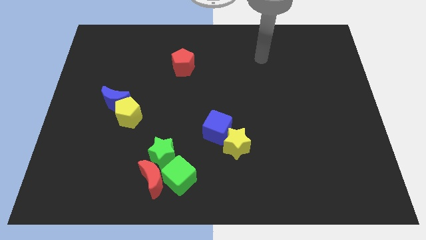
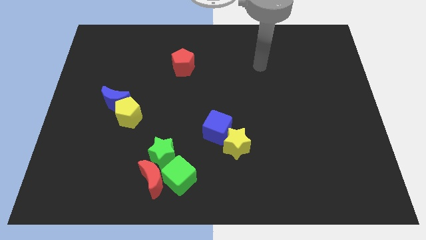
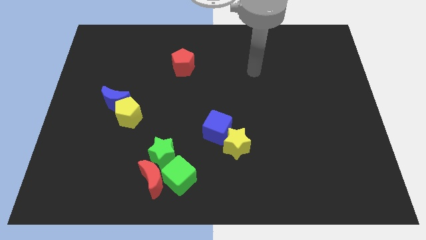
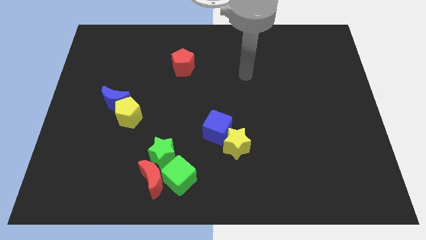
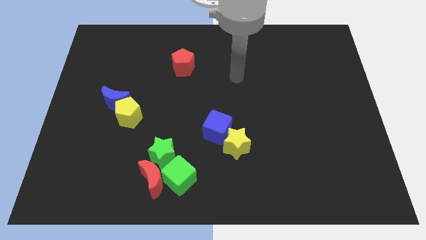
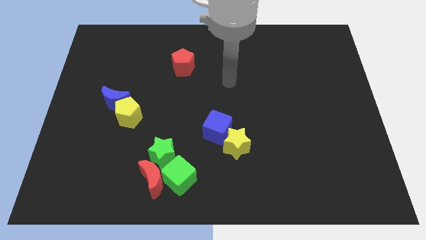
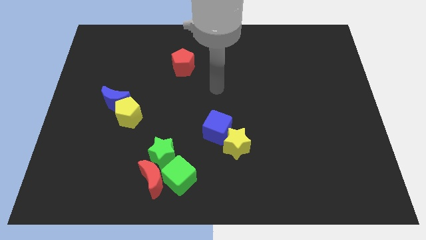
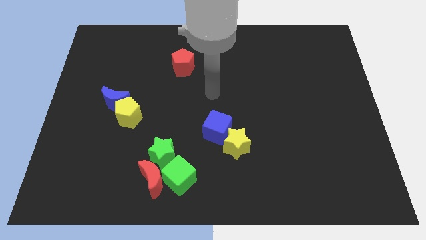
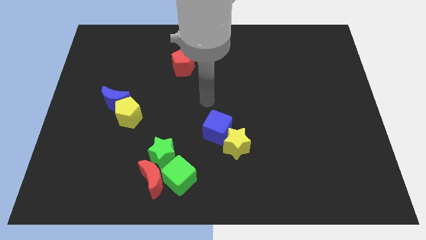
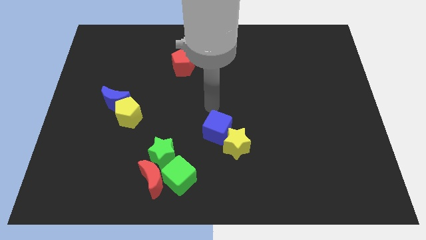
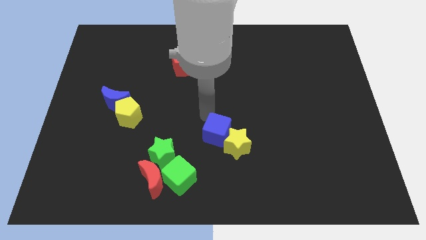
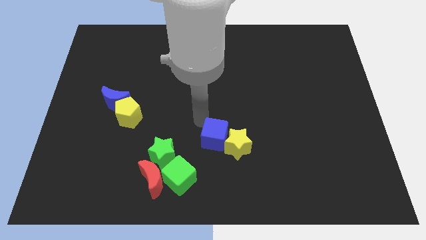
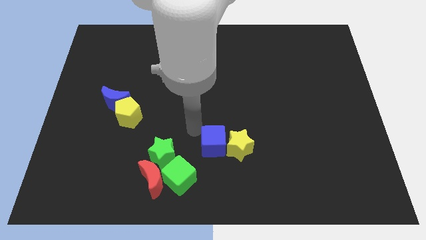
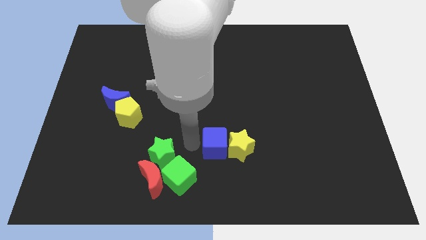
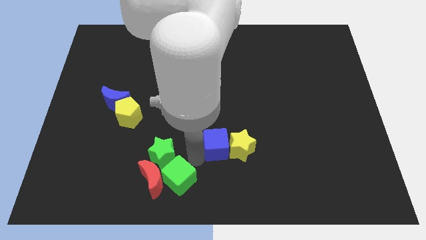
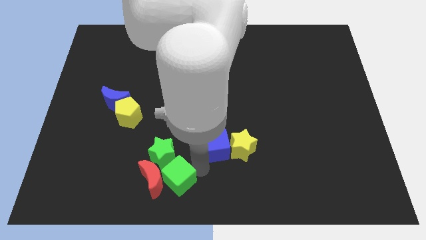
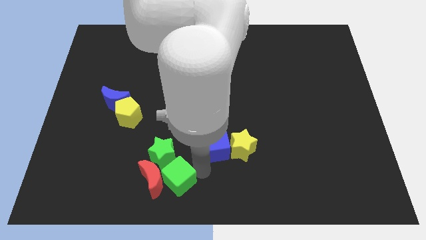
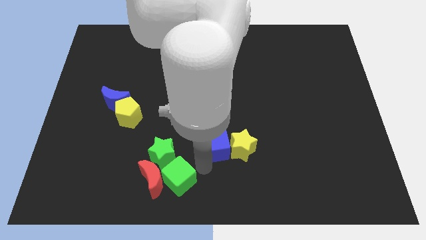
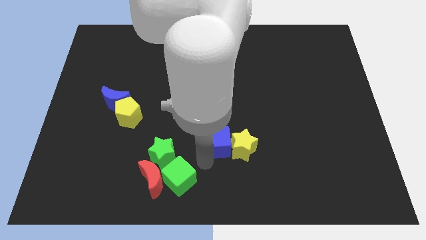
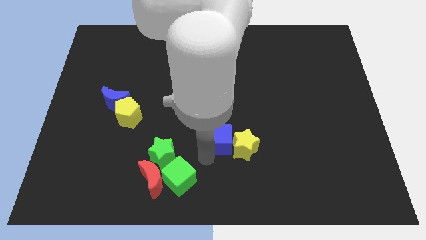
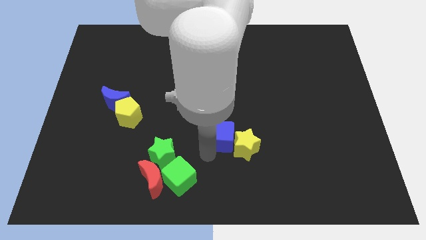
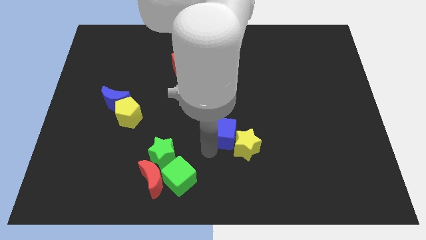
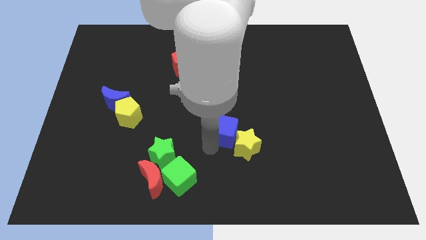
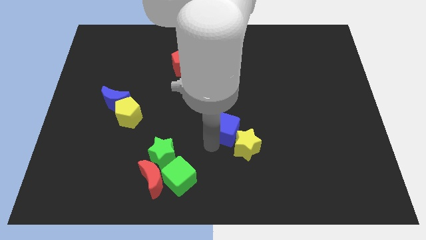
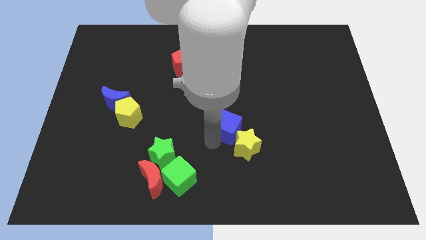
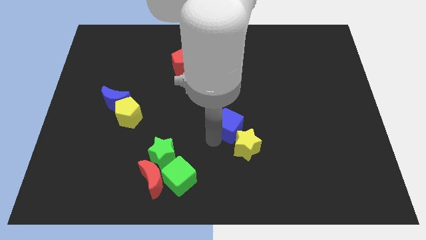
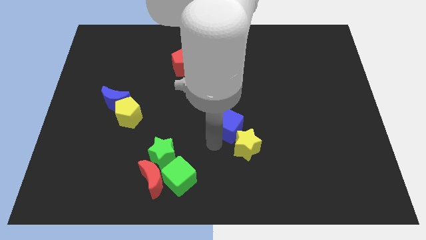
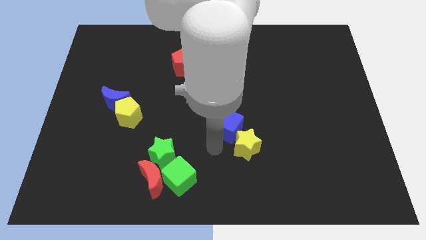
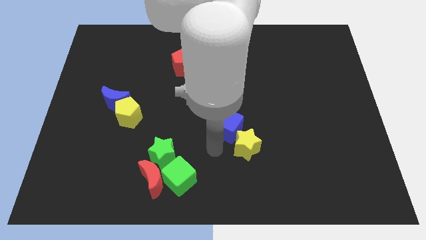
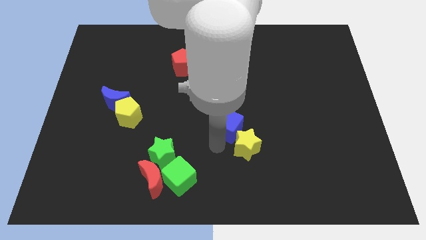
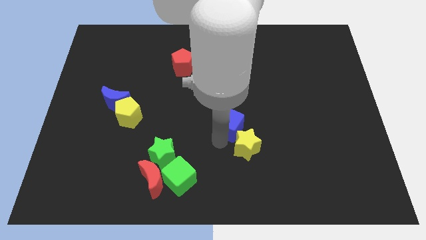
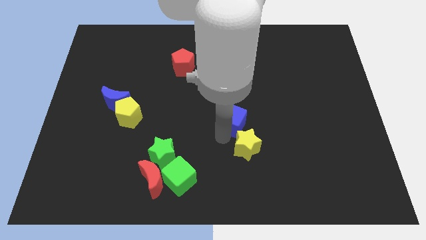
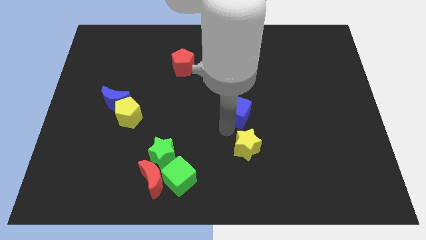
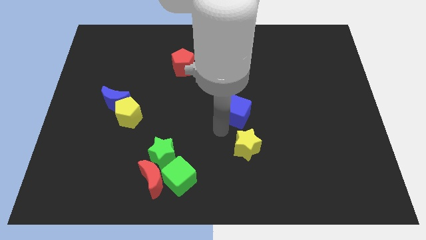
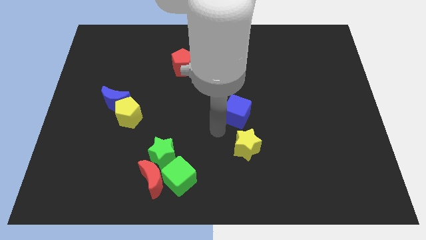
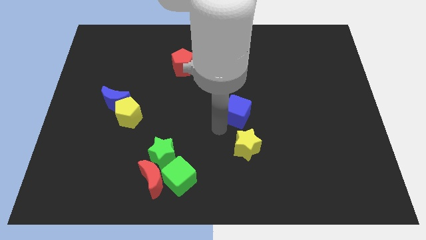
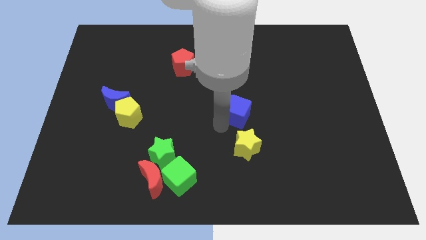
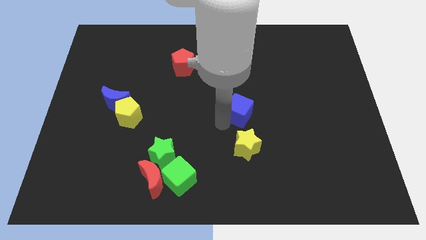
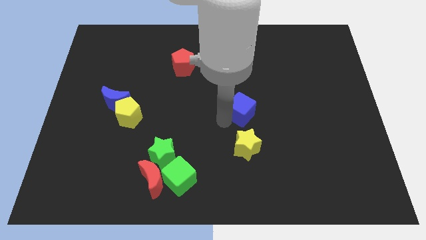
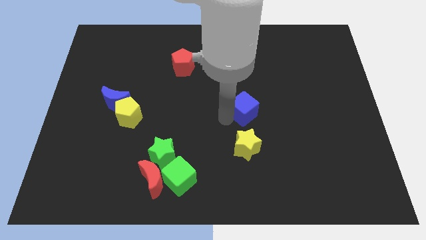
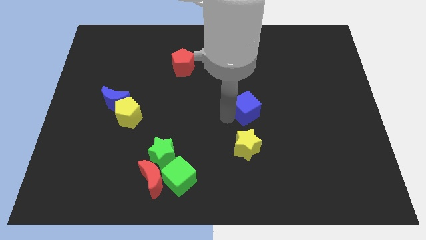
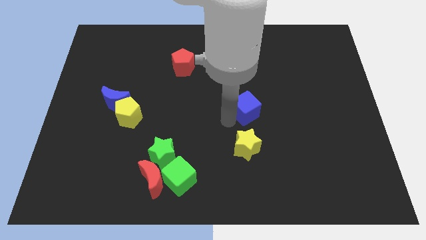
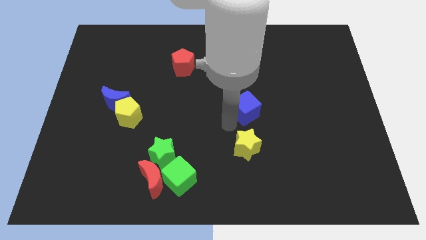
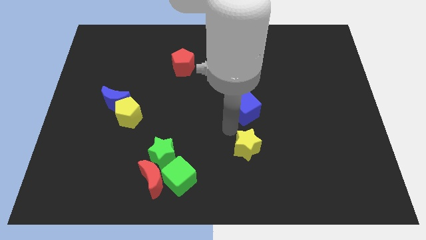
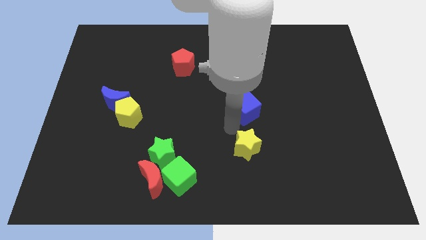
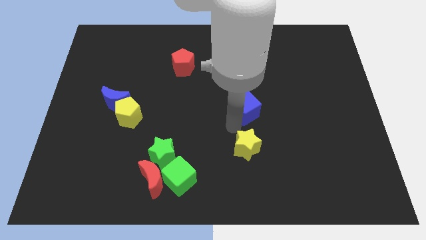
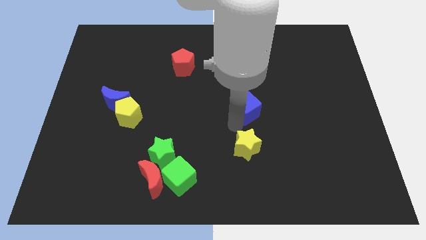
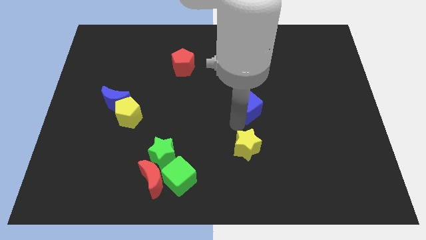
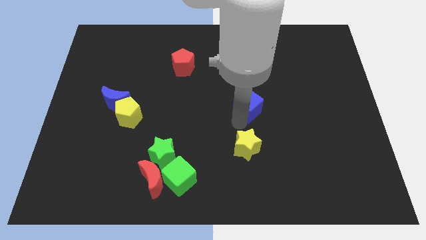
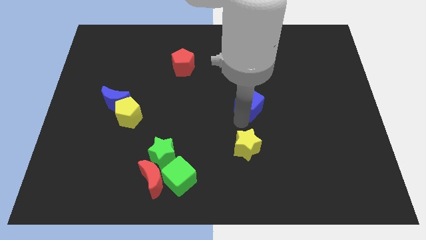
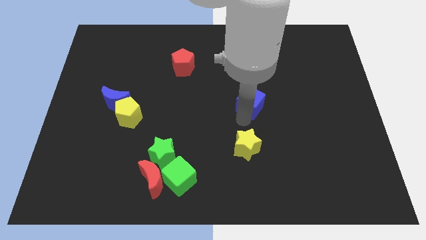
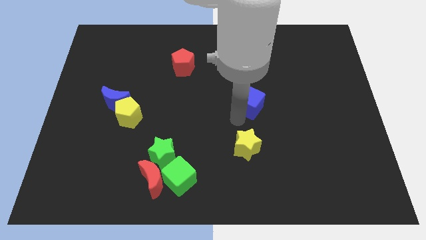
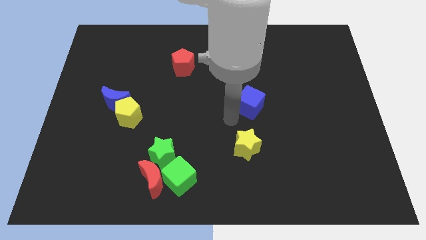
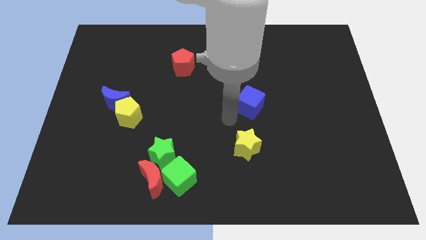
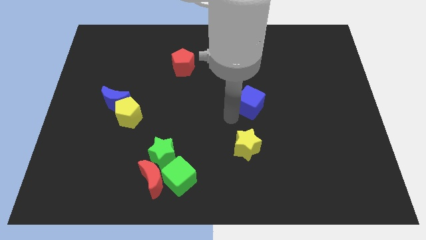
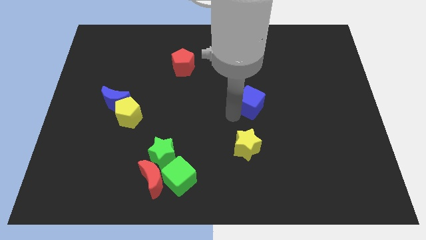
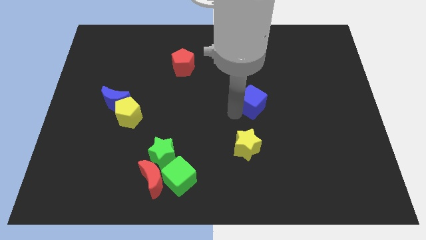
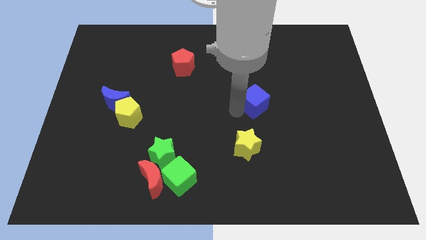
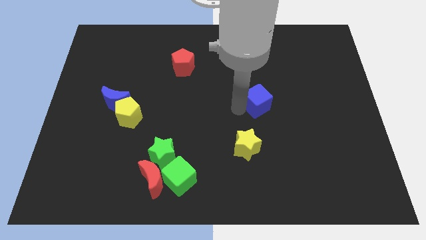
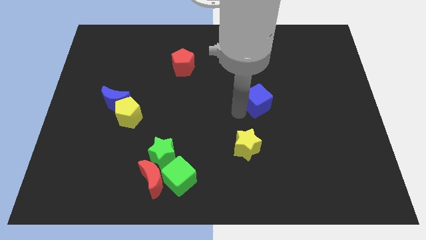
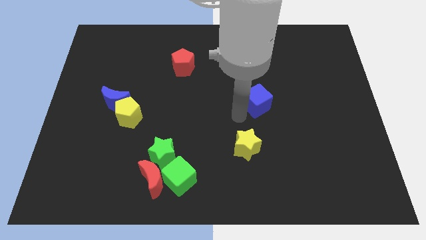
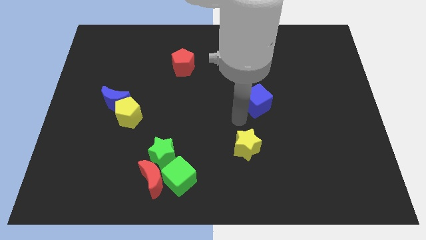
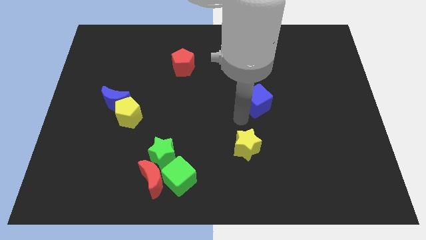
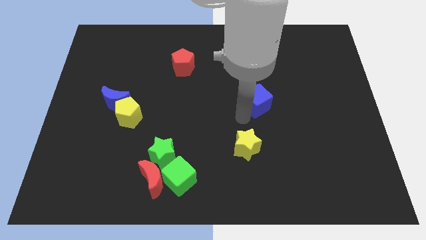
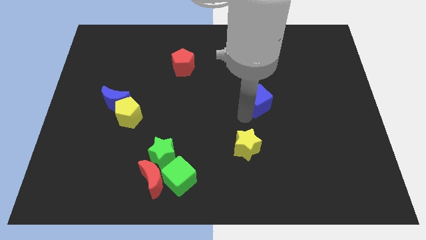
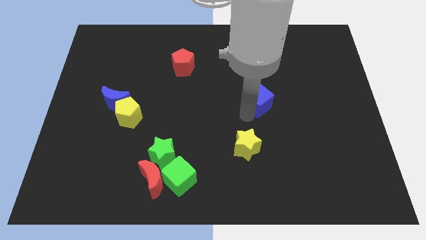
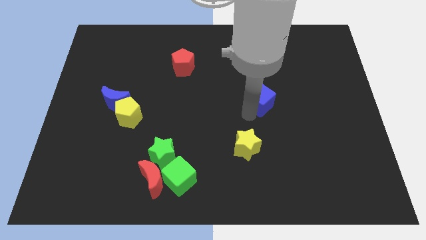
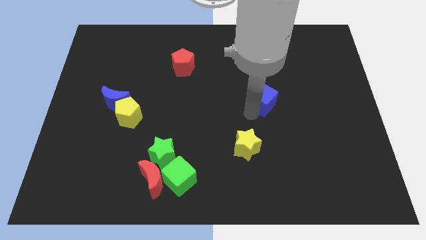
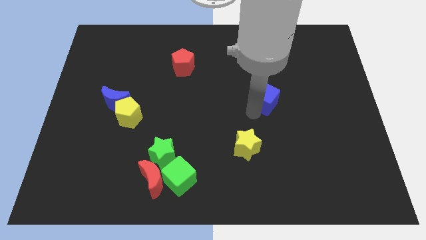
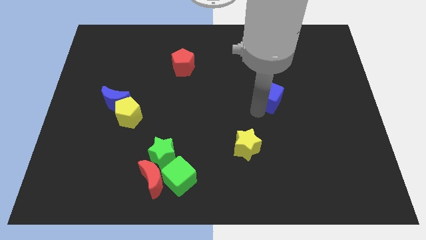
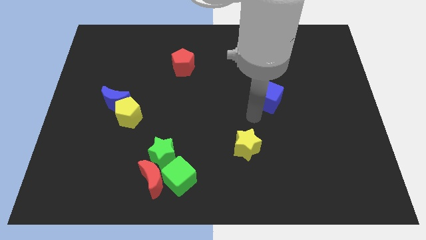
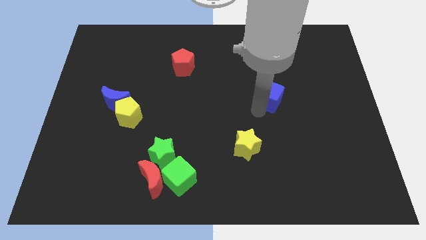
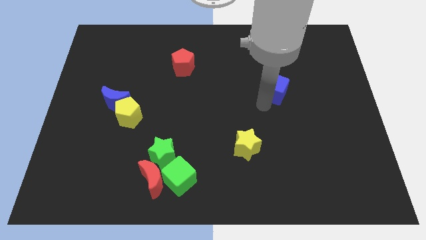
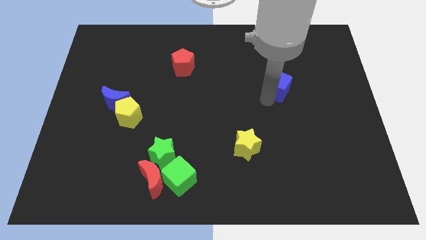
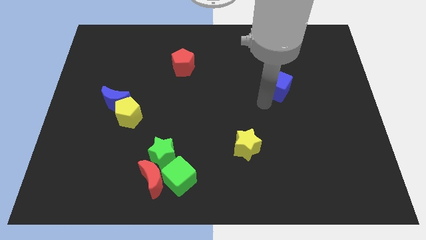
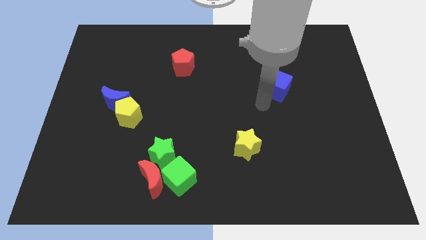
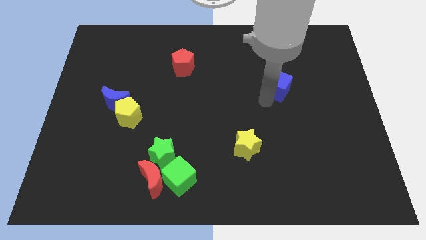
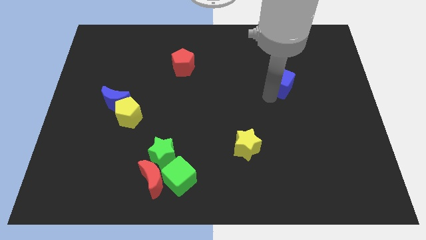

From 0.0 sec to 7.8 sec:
slide the blue cube up and then right

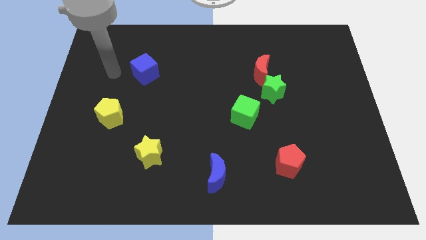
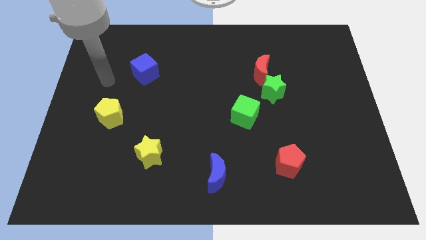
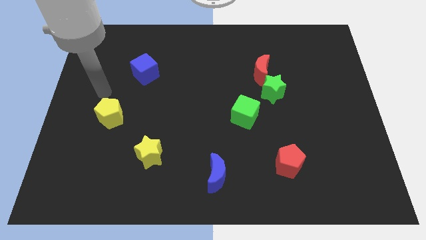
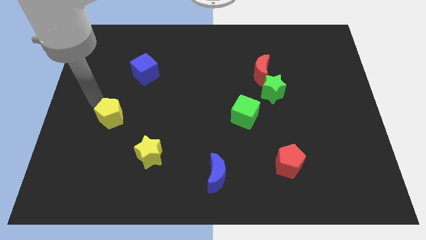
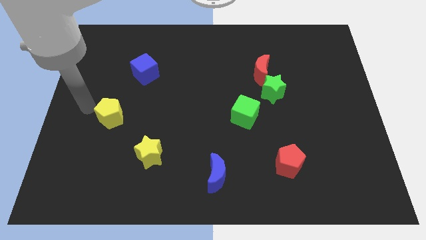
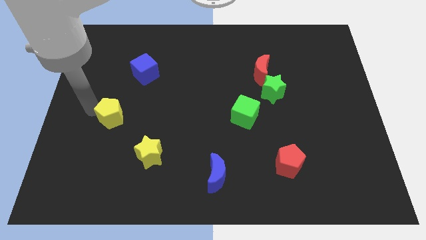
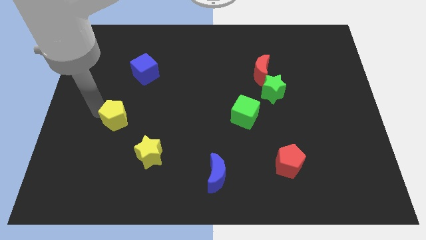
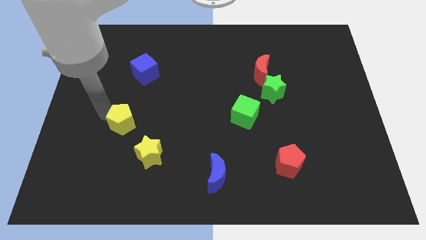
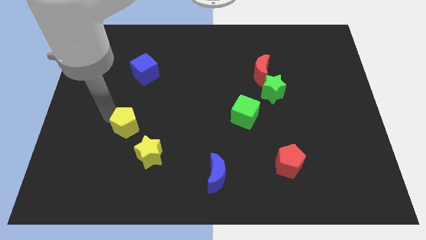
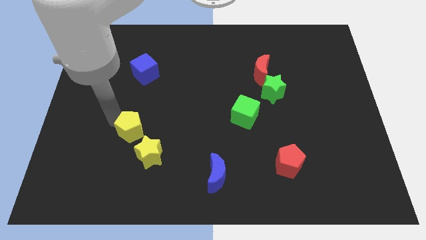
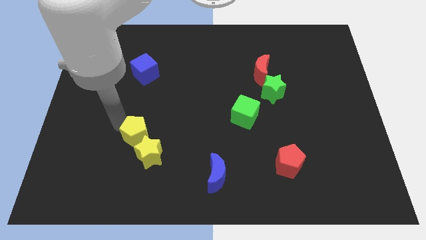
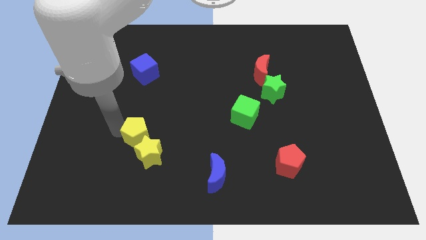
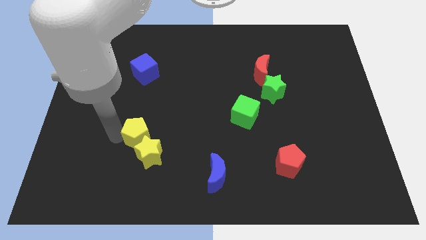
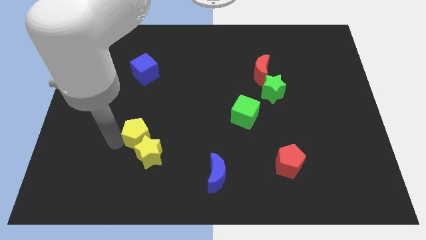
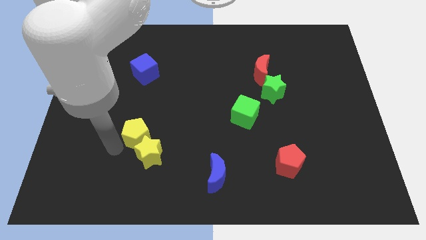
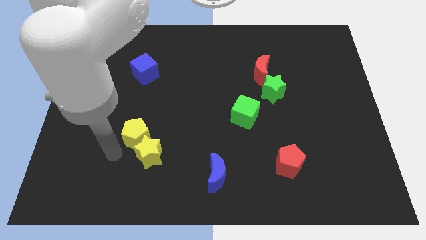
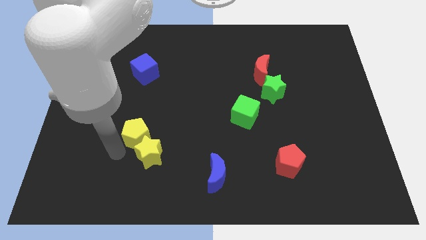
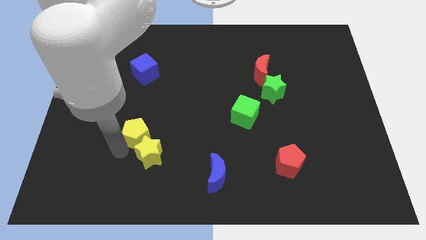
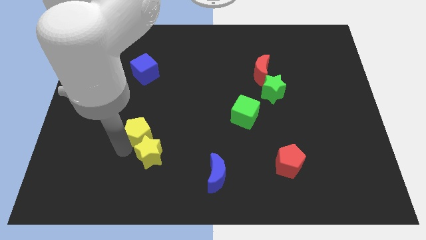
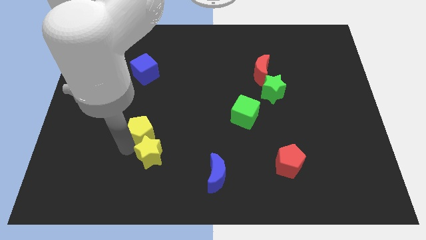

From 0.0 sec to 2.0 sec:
move the yellow pentagon a little bit right
